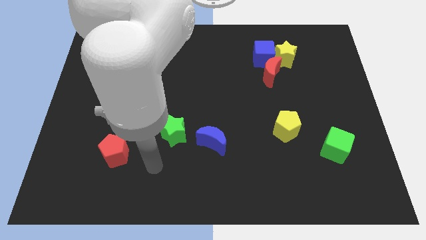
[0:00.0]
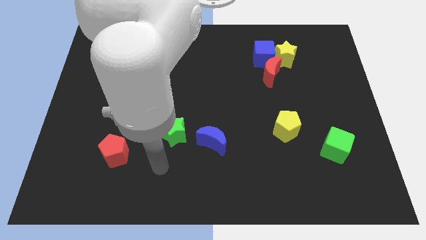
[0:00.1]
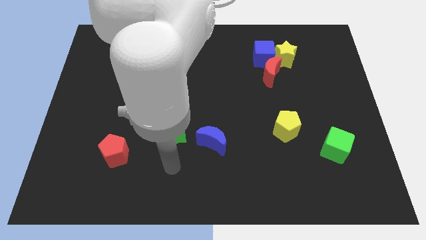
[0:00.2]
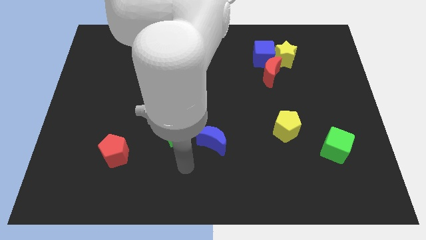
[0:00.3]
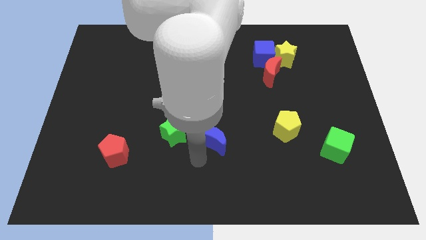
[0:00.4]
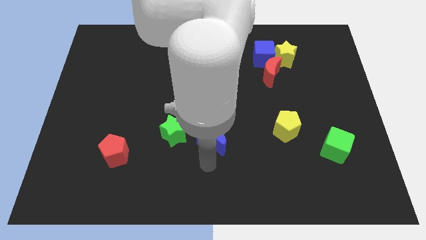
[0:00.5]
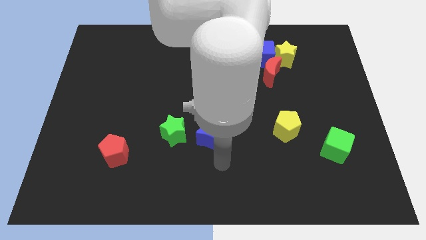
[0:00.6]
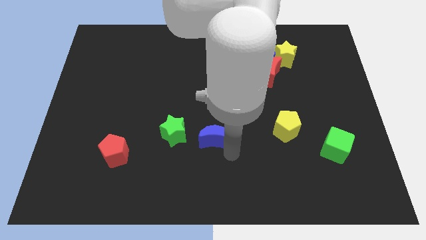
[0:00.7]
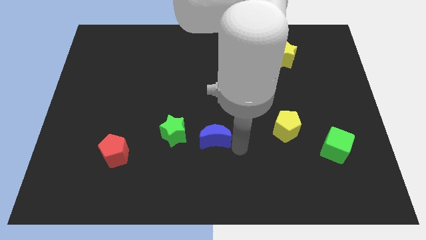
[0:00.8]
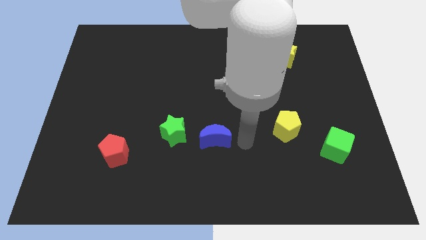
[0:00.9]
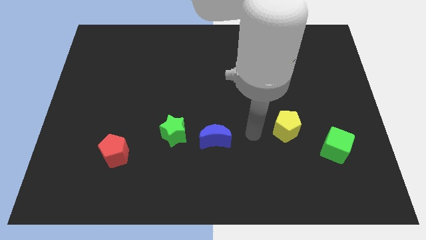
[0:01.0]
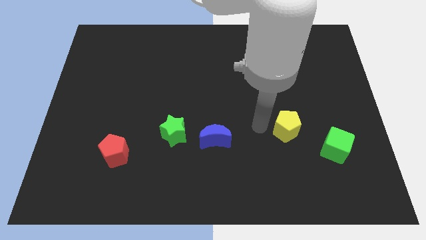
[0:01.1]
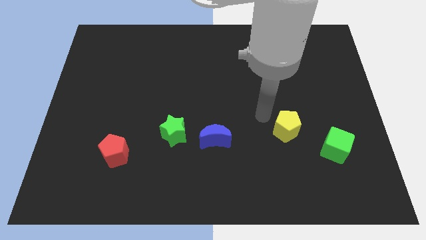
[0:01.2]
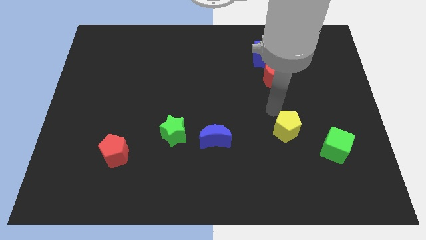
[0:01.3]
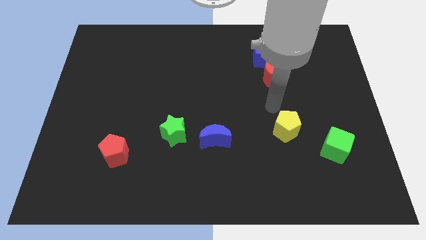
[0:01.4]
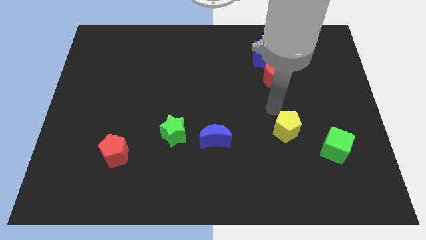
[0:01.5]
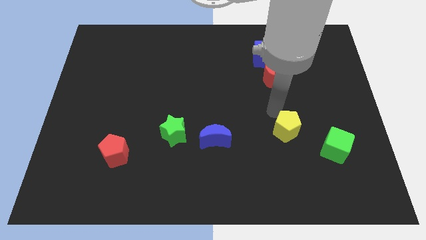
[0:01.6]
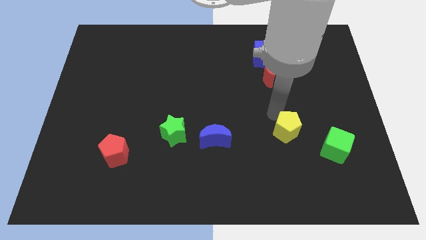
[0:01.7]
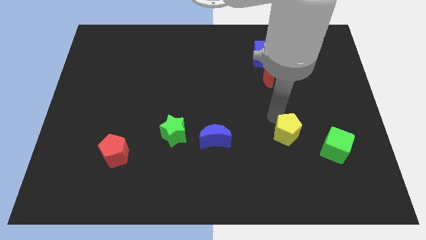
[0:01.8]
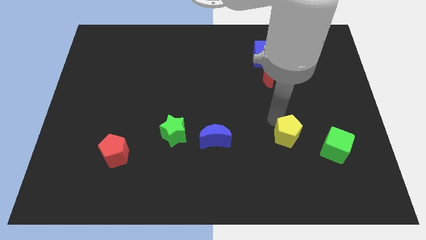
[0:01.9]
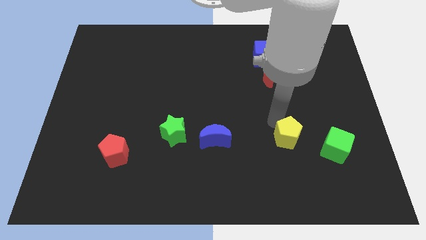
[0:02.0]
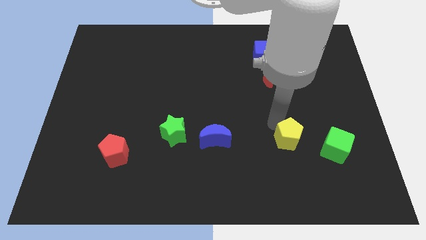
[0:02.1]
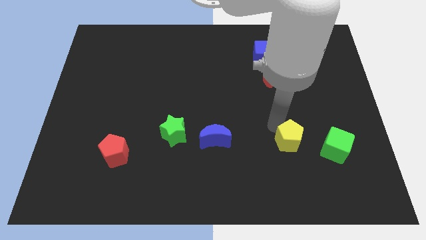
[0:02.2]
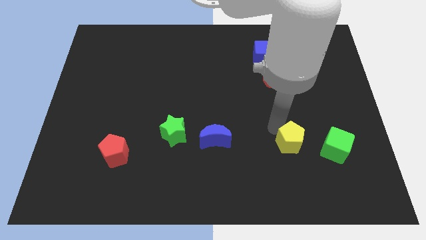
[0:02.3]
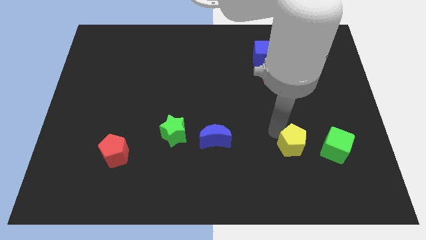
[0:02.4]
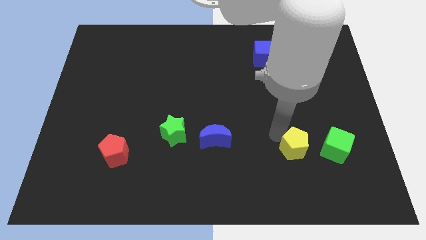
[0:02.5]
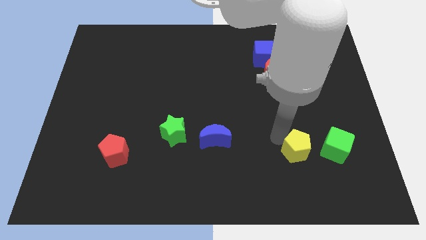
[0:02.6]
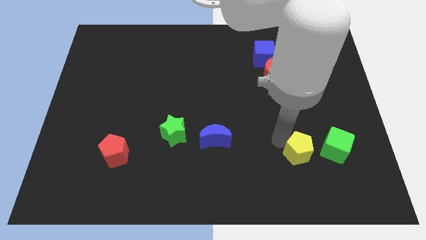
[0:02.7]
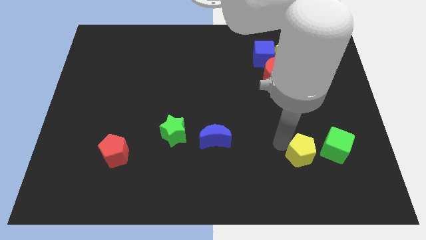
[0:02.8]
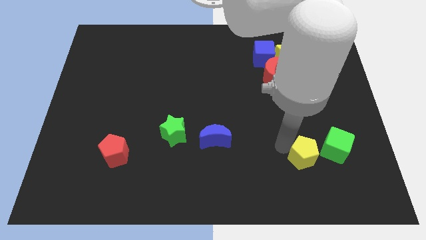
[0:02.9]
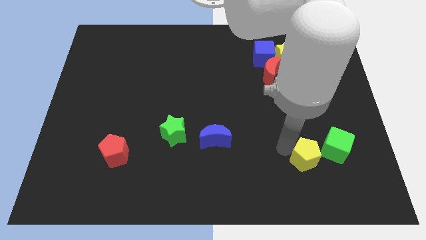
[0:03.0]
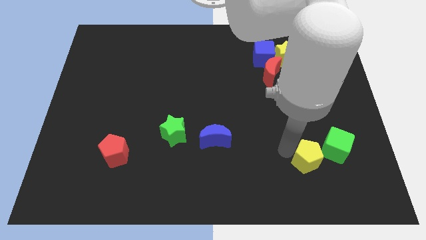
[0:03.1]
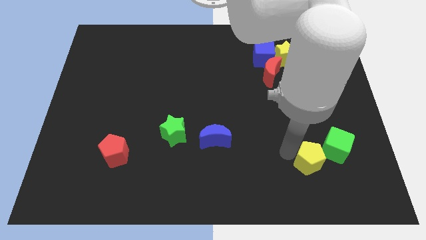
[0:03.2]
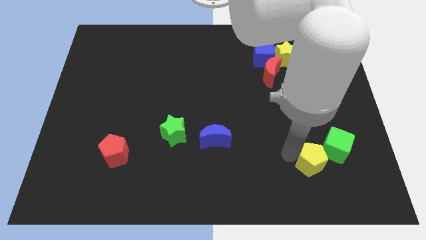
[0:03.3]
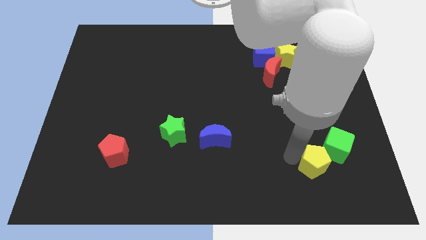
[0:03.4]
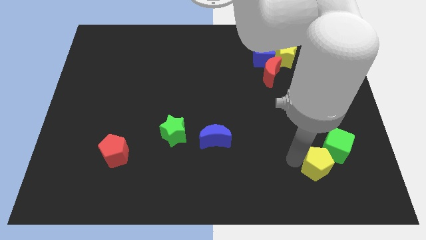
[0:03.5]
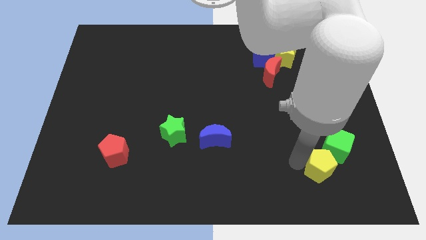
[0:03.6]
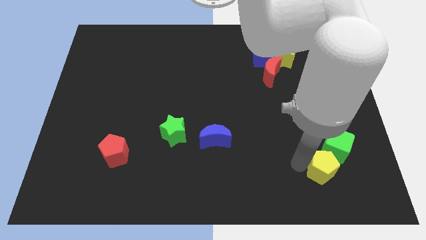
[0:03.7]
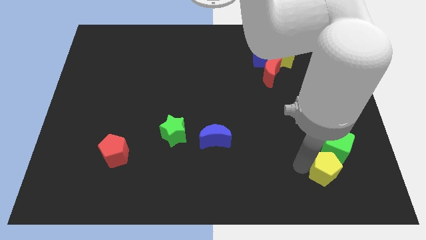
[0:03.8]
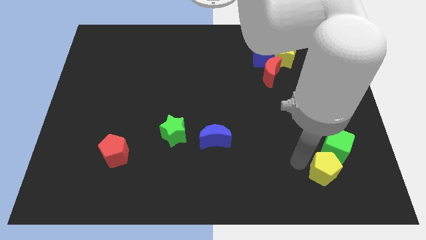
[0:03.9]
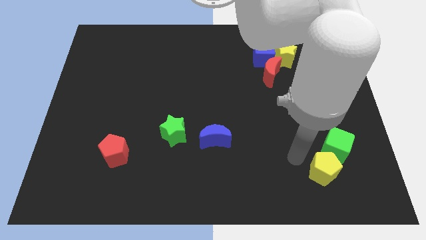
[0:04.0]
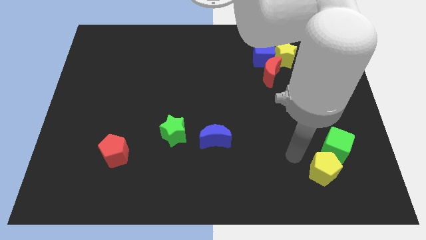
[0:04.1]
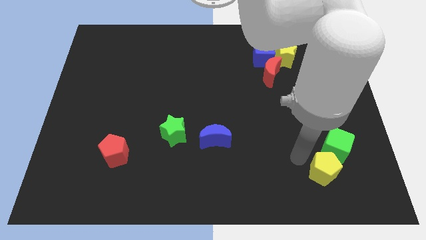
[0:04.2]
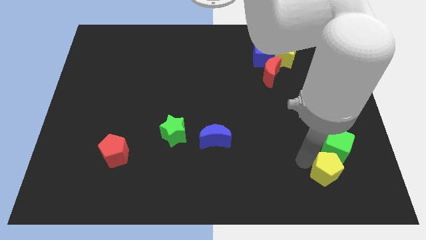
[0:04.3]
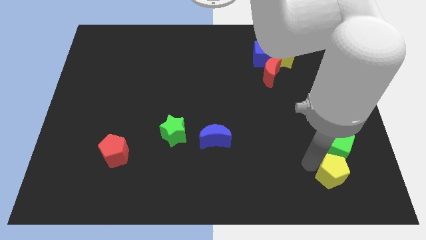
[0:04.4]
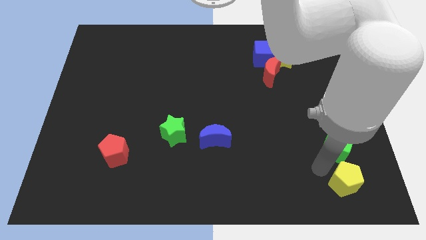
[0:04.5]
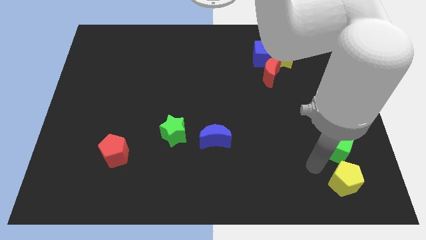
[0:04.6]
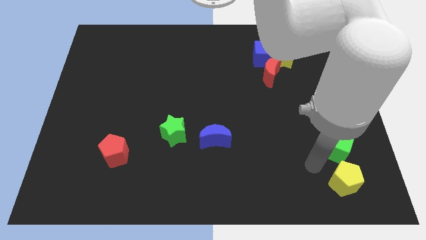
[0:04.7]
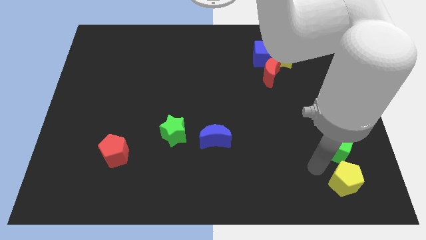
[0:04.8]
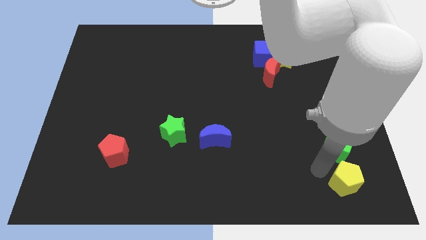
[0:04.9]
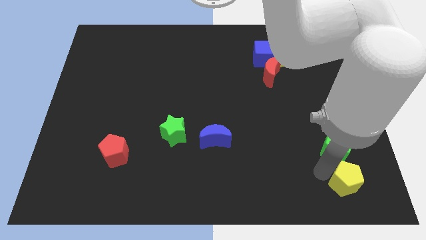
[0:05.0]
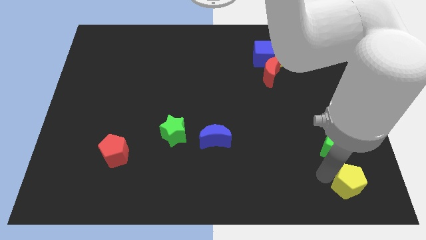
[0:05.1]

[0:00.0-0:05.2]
put the yellow pentagon to the bottom right corner

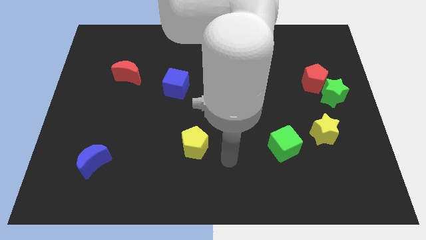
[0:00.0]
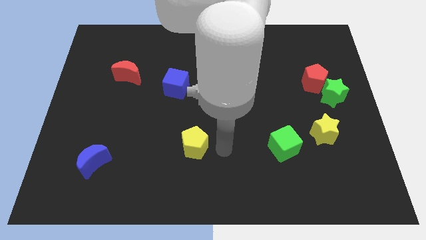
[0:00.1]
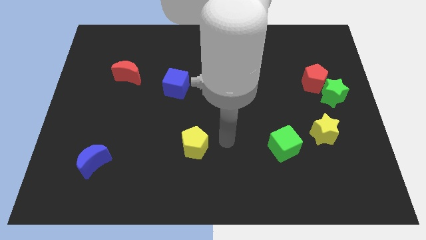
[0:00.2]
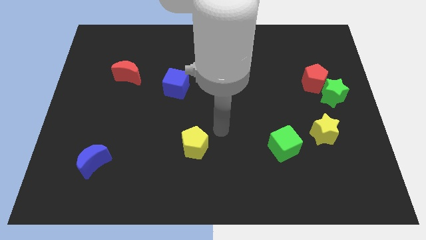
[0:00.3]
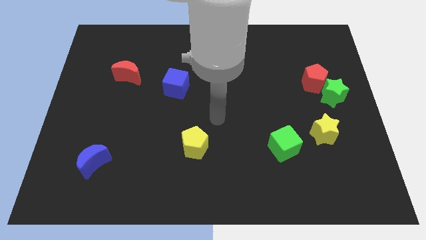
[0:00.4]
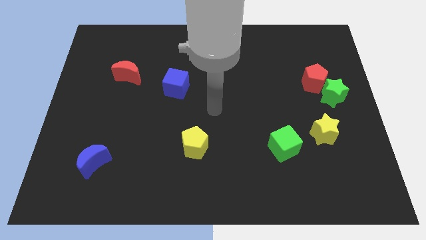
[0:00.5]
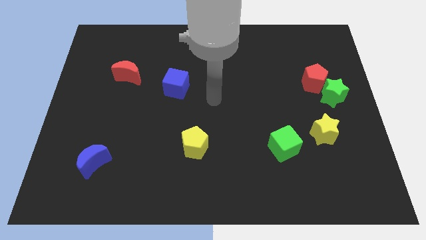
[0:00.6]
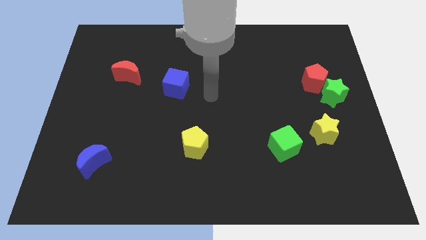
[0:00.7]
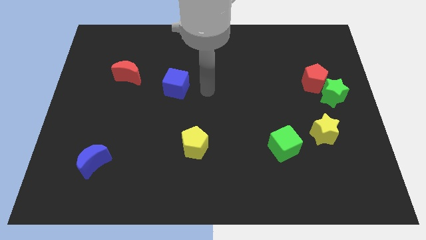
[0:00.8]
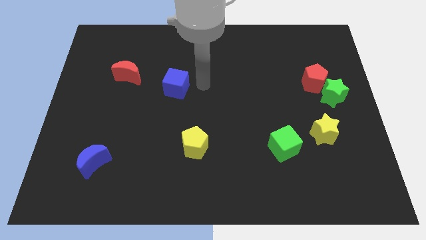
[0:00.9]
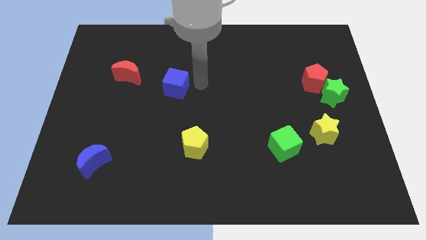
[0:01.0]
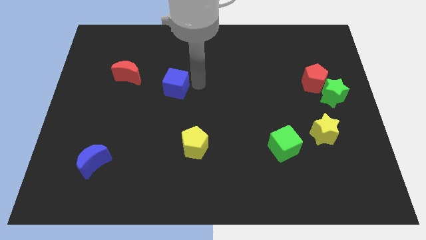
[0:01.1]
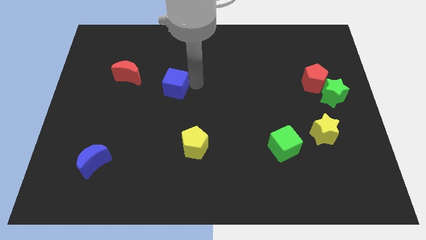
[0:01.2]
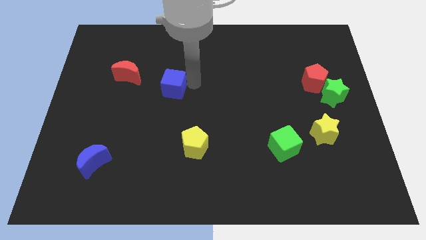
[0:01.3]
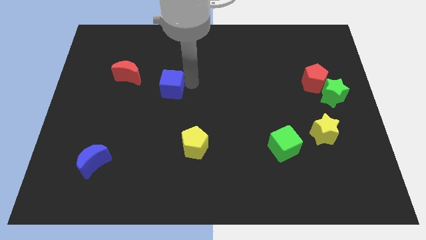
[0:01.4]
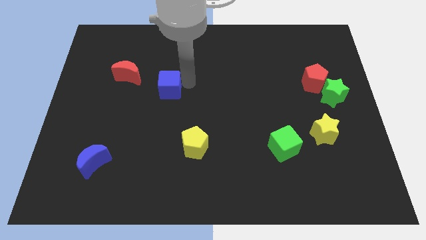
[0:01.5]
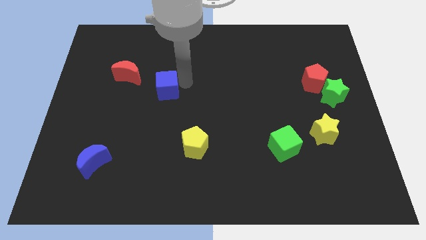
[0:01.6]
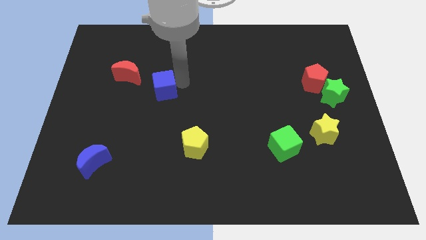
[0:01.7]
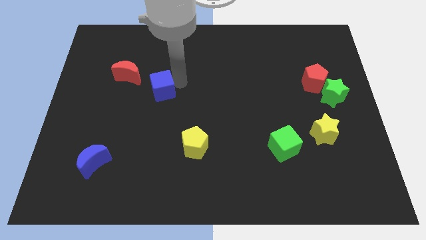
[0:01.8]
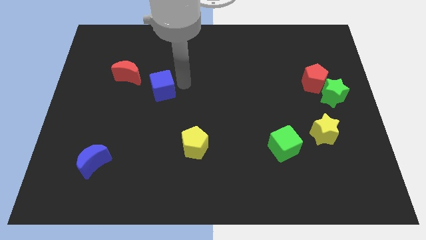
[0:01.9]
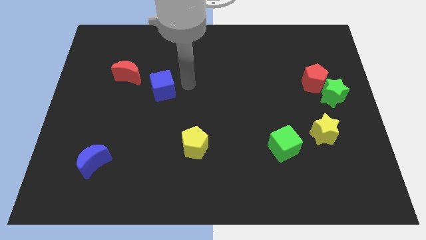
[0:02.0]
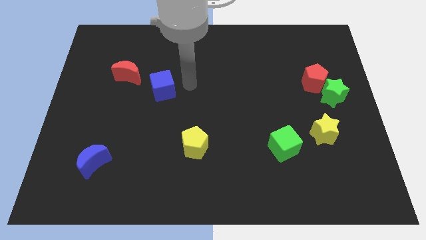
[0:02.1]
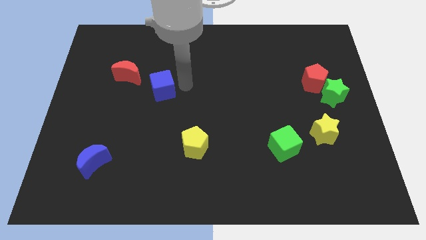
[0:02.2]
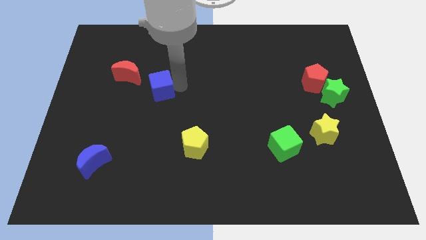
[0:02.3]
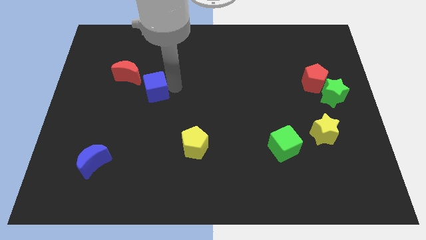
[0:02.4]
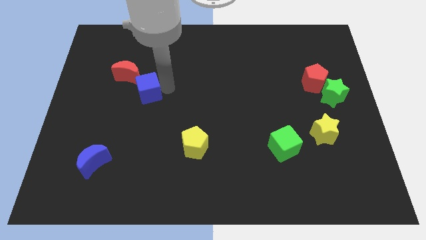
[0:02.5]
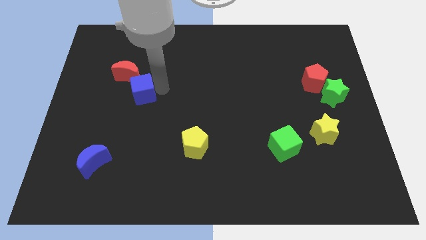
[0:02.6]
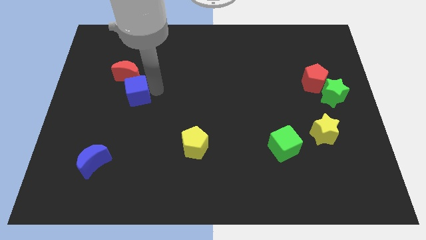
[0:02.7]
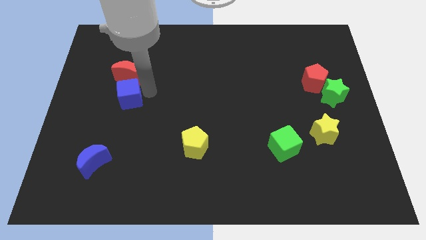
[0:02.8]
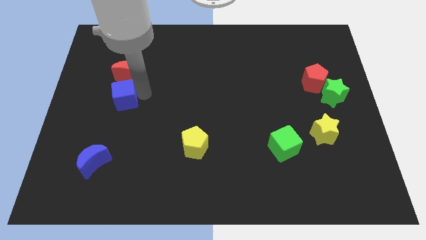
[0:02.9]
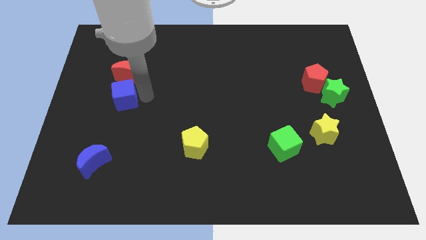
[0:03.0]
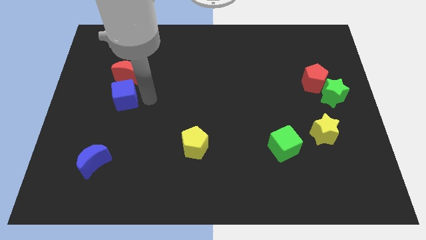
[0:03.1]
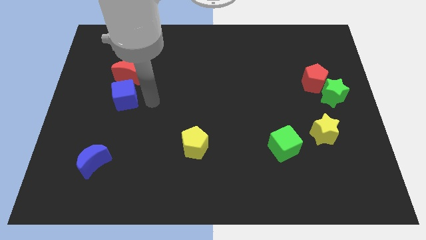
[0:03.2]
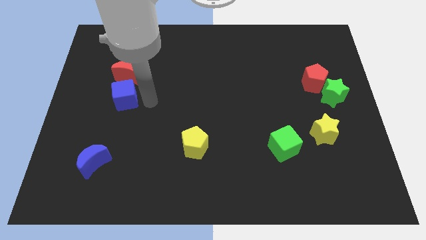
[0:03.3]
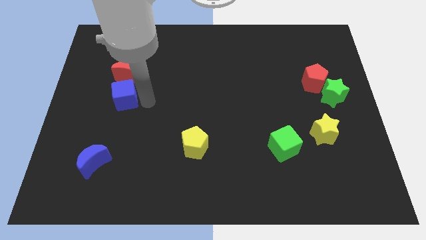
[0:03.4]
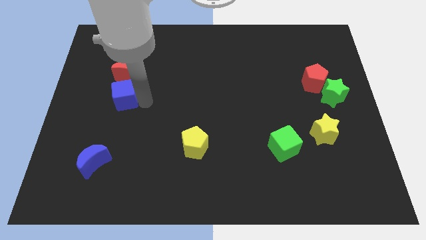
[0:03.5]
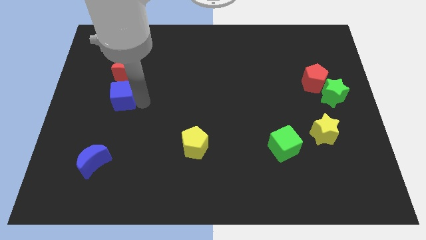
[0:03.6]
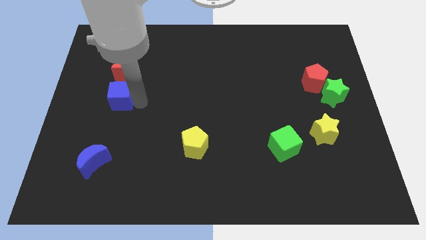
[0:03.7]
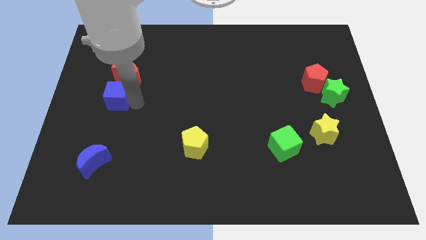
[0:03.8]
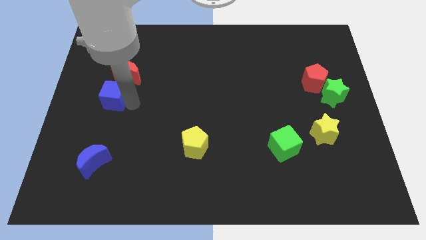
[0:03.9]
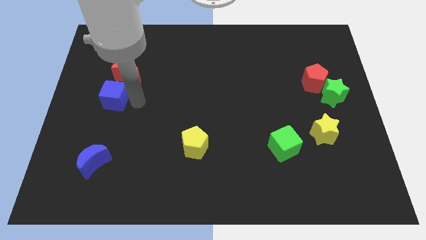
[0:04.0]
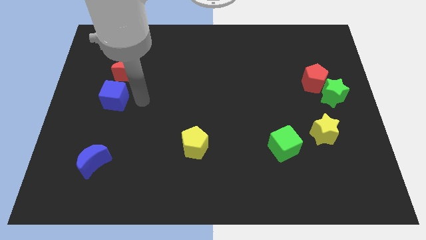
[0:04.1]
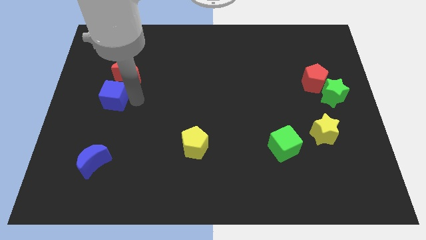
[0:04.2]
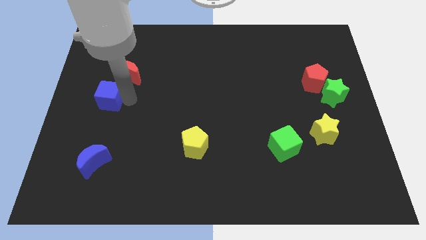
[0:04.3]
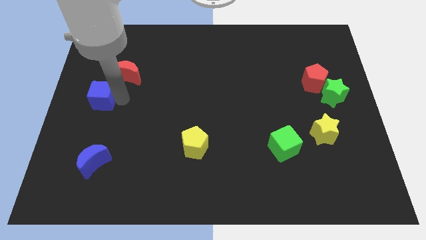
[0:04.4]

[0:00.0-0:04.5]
slide the blue cube to the center left
